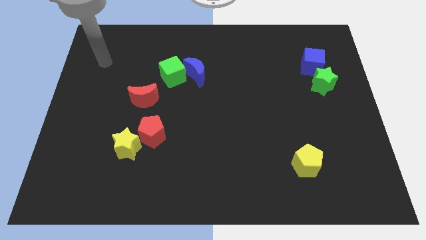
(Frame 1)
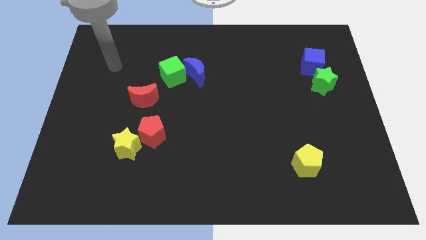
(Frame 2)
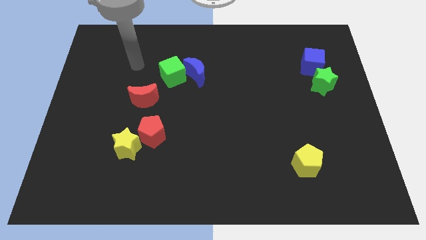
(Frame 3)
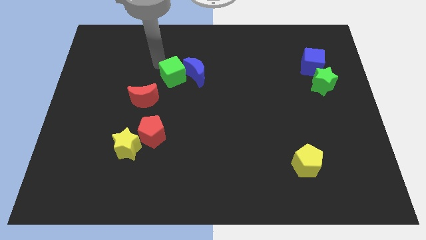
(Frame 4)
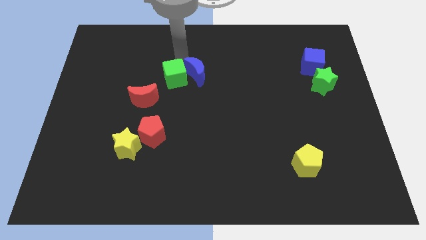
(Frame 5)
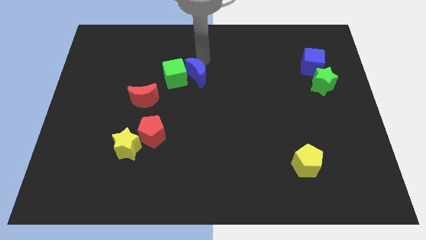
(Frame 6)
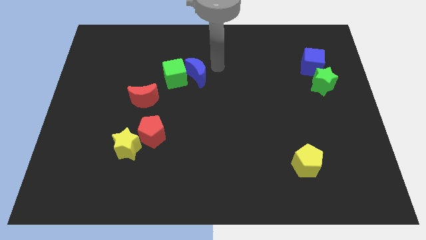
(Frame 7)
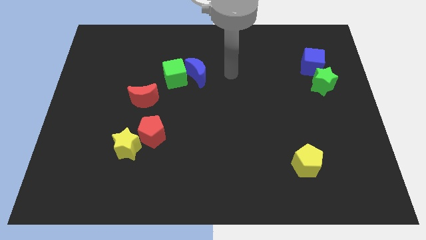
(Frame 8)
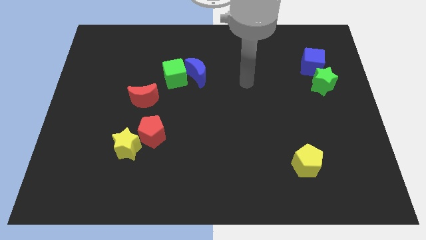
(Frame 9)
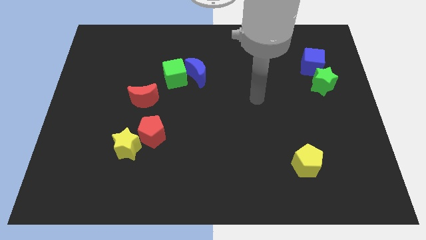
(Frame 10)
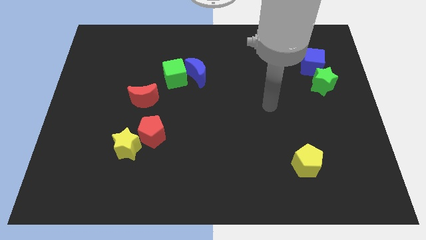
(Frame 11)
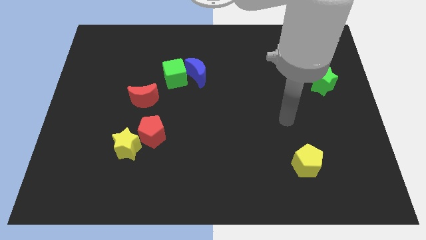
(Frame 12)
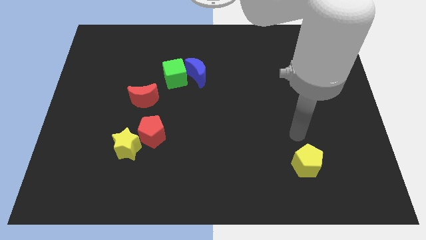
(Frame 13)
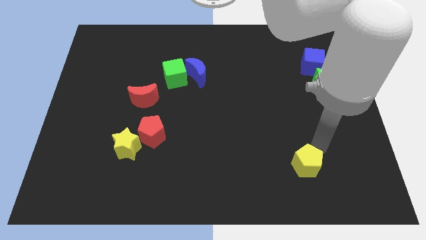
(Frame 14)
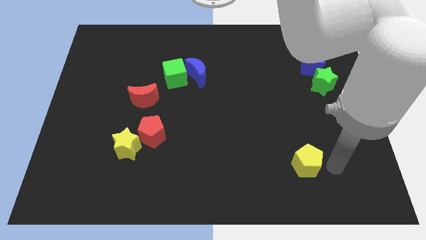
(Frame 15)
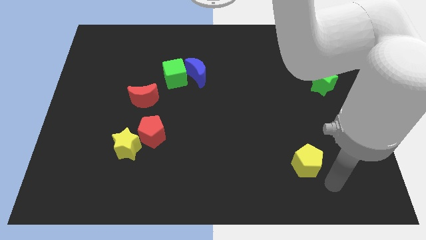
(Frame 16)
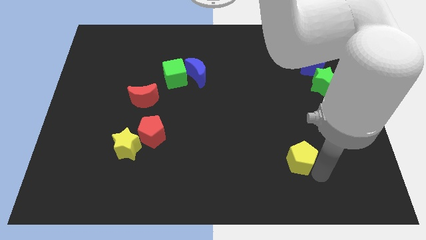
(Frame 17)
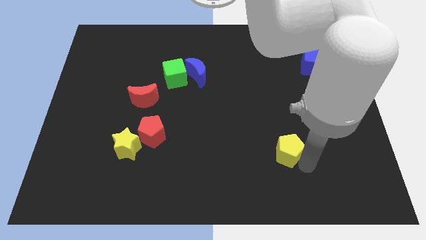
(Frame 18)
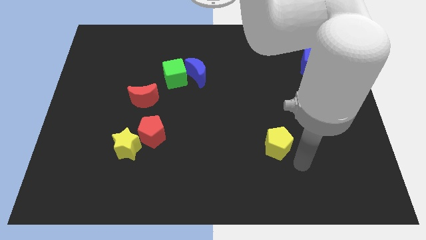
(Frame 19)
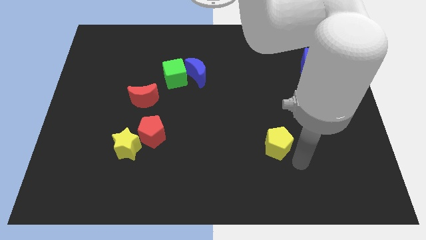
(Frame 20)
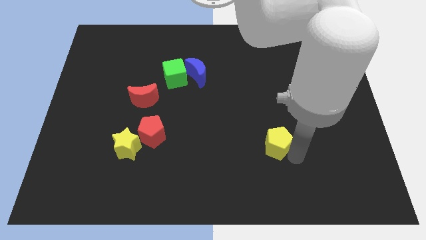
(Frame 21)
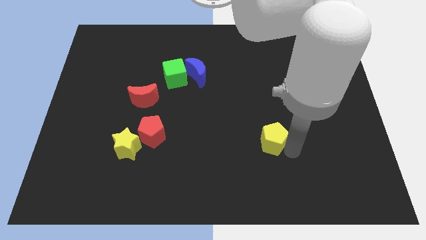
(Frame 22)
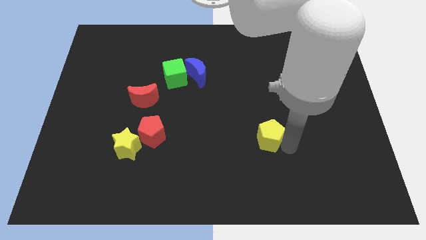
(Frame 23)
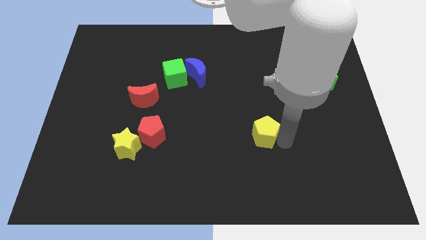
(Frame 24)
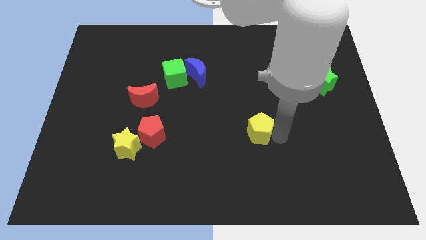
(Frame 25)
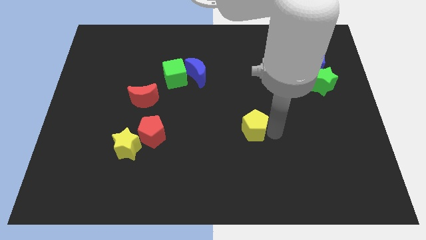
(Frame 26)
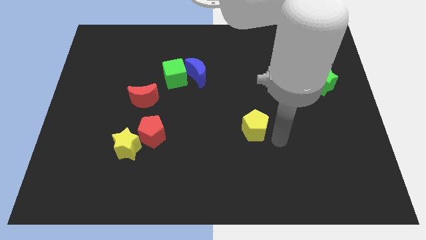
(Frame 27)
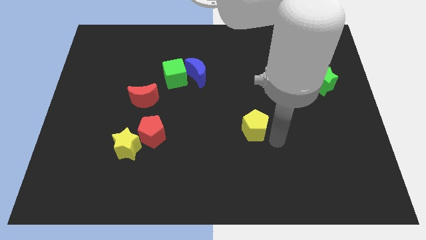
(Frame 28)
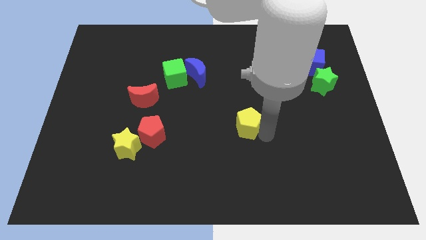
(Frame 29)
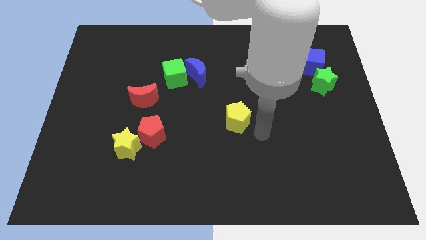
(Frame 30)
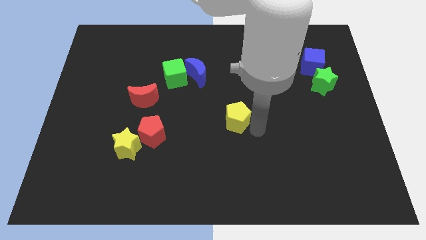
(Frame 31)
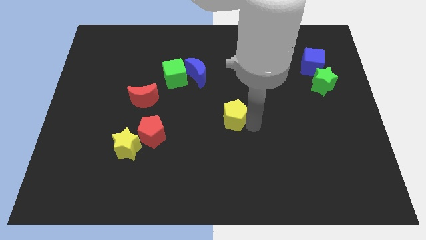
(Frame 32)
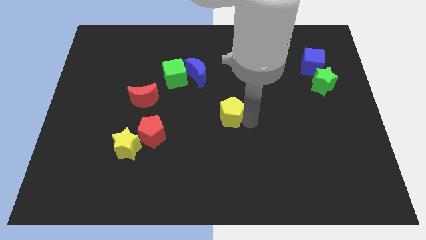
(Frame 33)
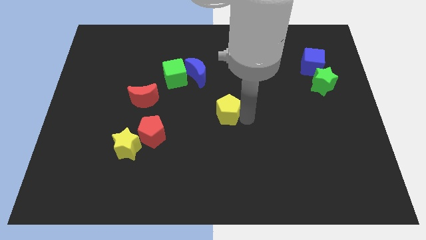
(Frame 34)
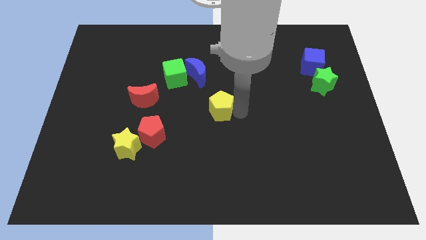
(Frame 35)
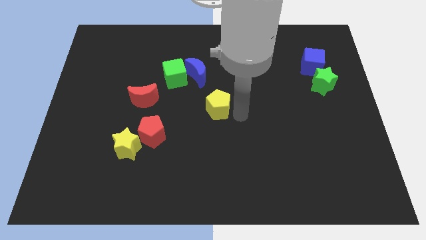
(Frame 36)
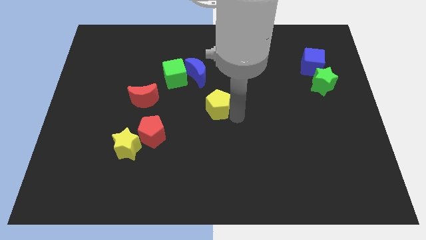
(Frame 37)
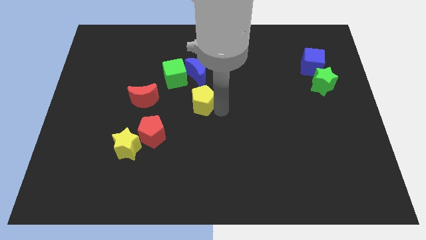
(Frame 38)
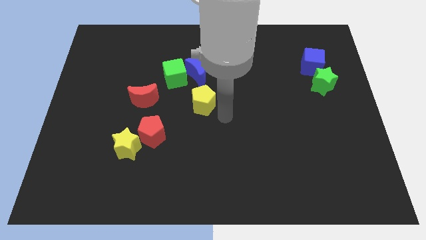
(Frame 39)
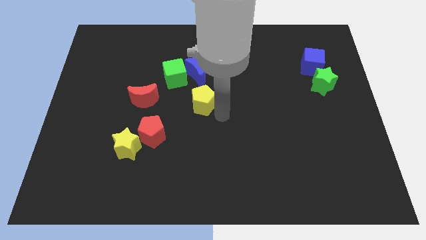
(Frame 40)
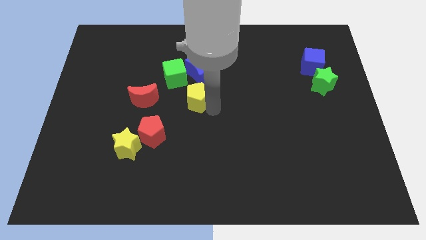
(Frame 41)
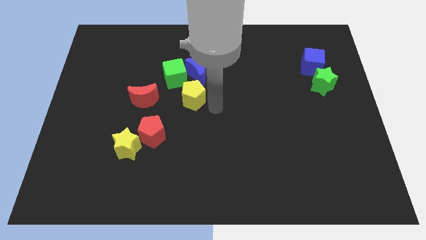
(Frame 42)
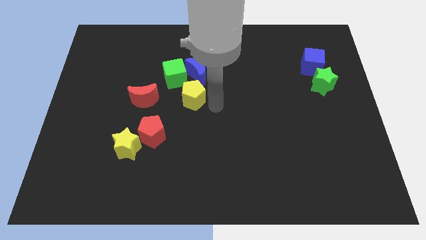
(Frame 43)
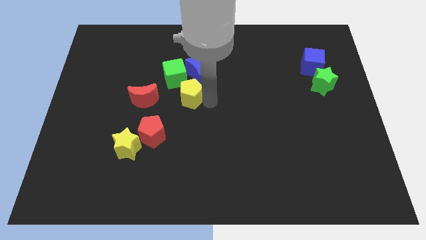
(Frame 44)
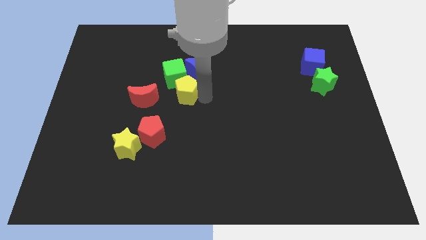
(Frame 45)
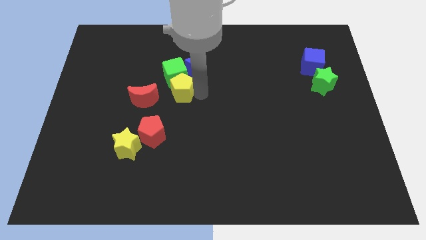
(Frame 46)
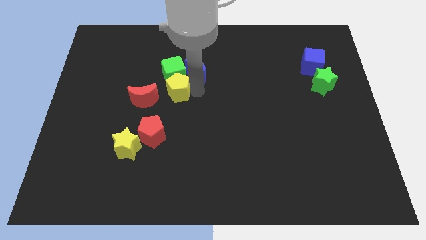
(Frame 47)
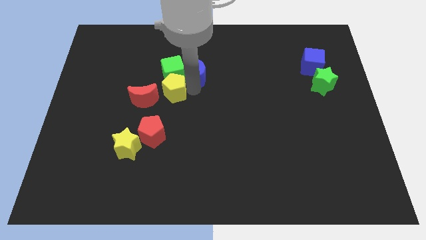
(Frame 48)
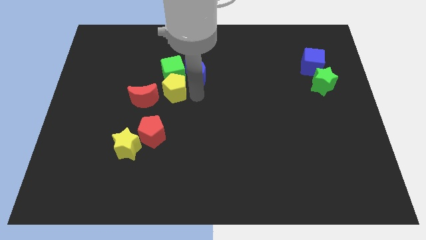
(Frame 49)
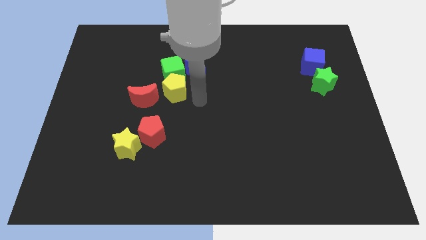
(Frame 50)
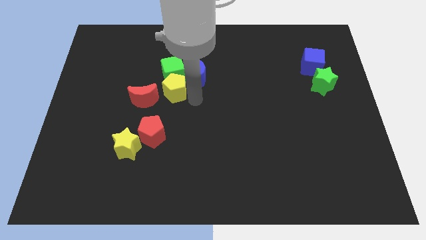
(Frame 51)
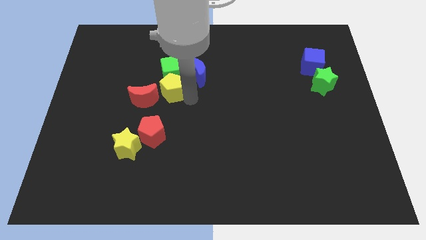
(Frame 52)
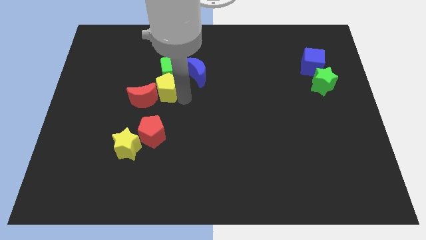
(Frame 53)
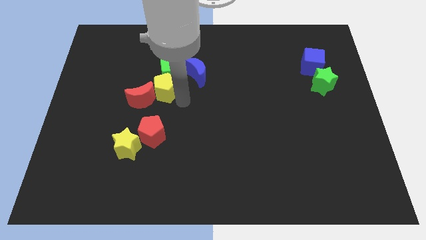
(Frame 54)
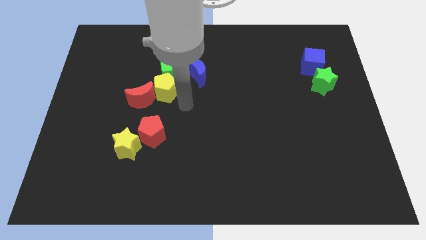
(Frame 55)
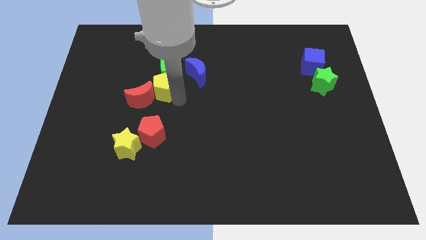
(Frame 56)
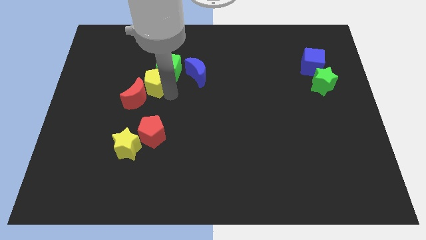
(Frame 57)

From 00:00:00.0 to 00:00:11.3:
push the yellow pentagon to the top side of the red moon

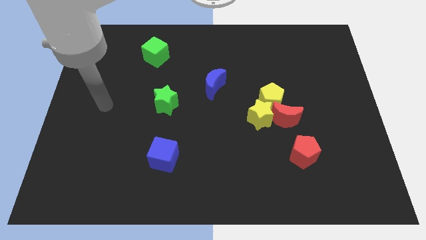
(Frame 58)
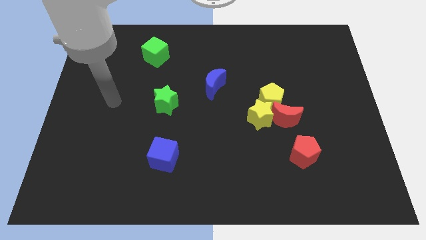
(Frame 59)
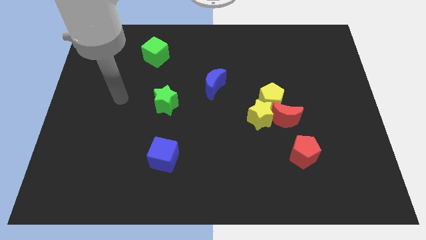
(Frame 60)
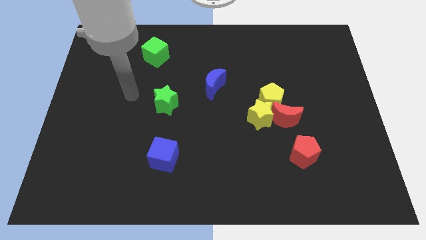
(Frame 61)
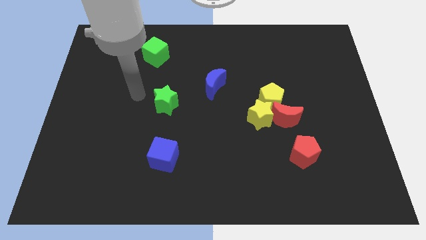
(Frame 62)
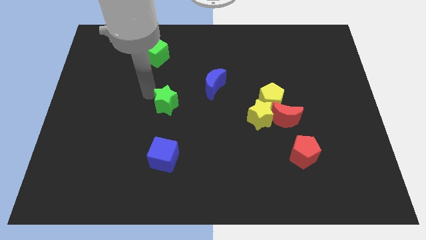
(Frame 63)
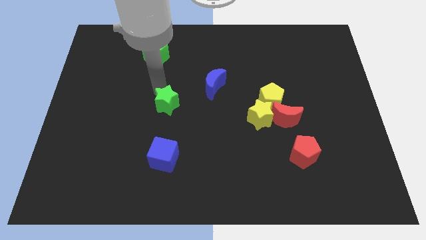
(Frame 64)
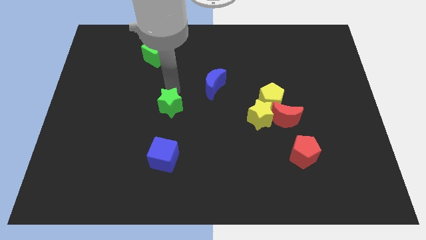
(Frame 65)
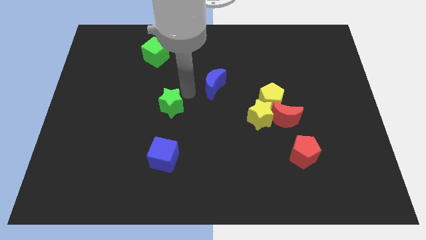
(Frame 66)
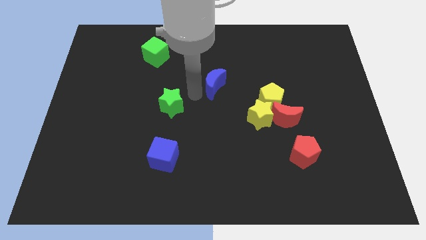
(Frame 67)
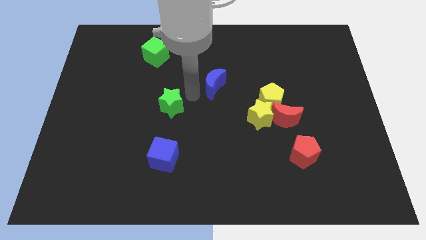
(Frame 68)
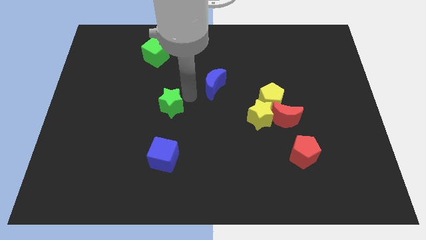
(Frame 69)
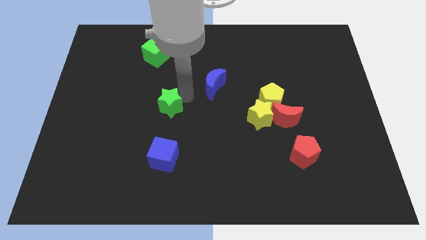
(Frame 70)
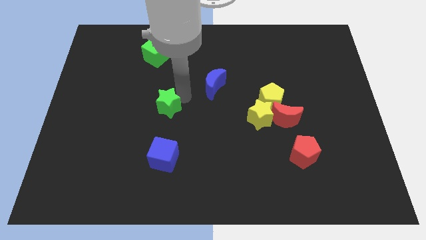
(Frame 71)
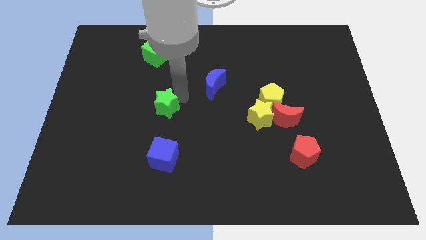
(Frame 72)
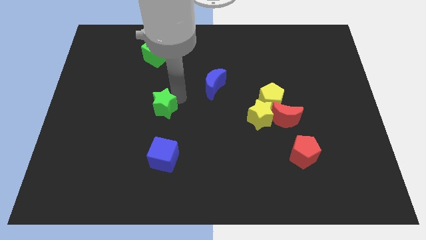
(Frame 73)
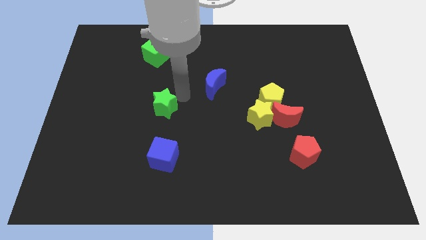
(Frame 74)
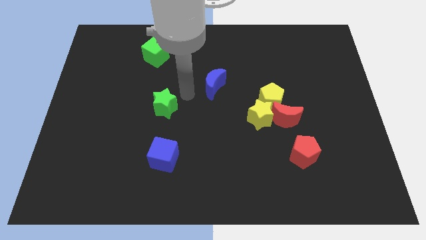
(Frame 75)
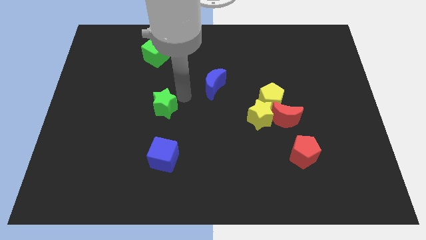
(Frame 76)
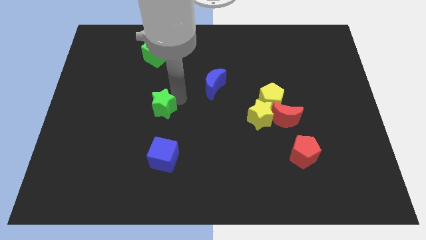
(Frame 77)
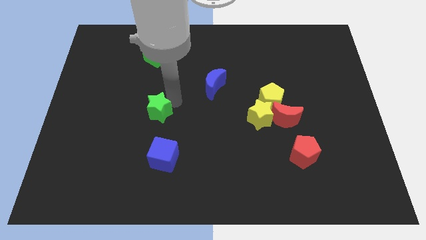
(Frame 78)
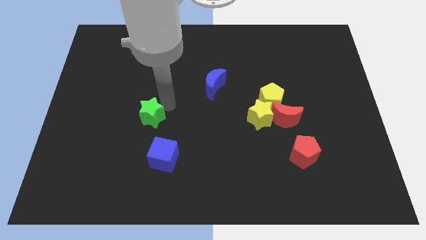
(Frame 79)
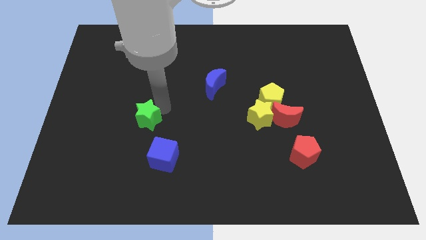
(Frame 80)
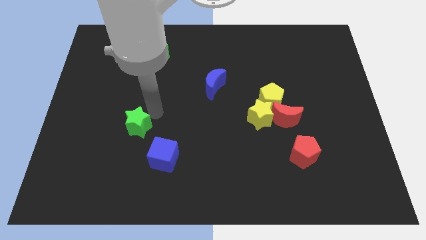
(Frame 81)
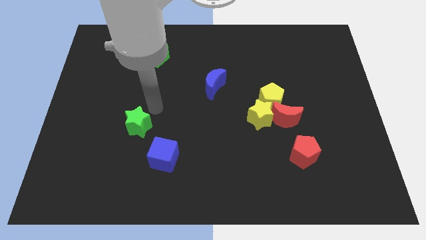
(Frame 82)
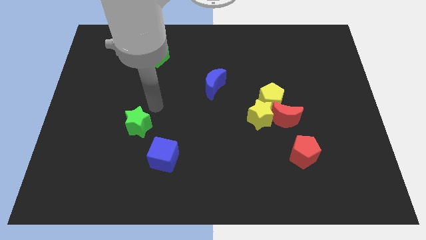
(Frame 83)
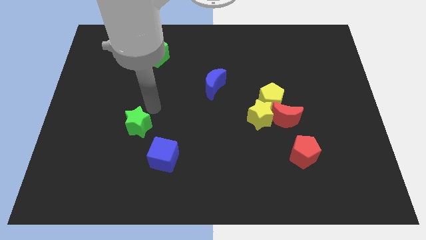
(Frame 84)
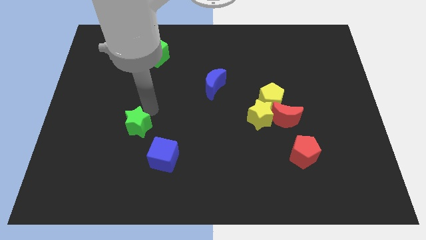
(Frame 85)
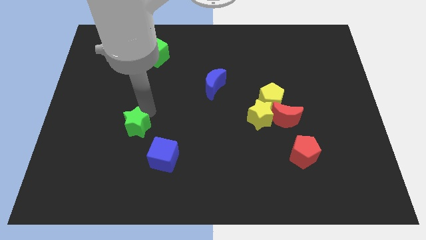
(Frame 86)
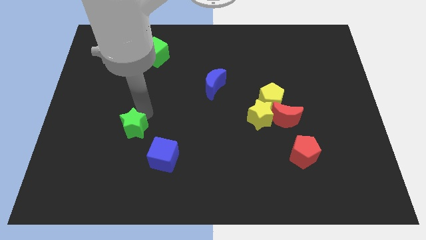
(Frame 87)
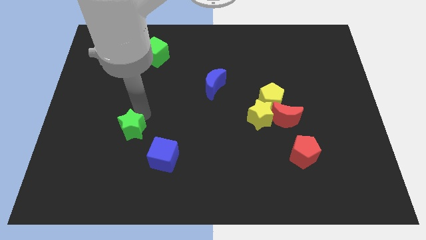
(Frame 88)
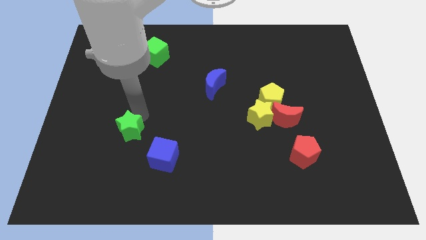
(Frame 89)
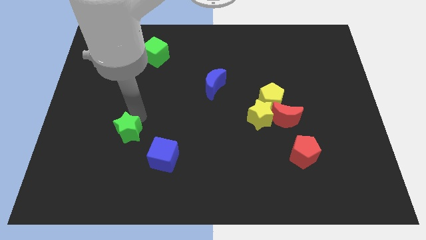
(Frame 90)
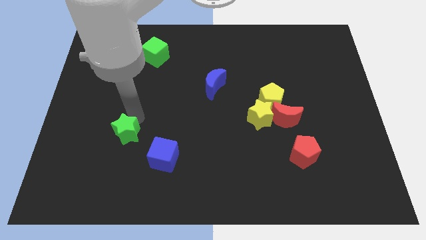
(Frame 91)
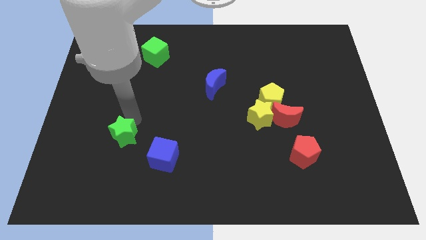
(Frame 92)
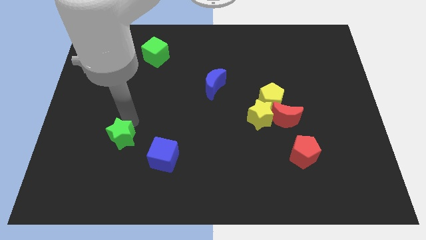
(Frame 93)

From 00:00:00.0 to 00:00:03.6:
move the green star to the left side of the blue cube
